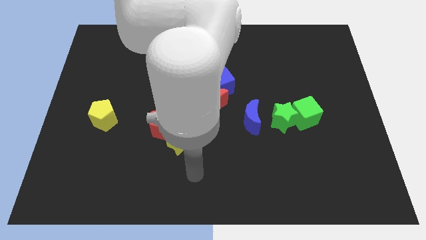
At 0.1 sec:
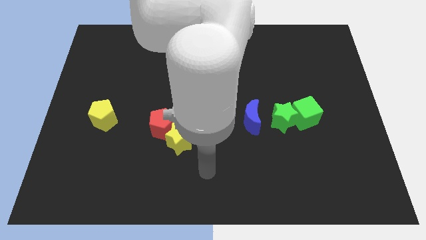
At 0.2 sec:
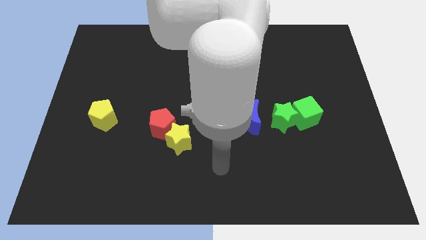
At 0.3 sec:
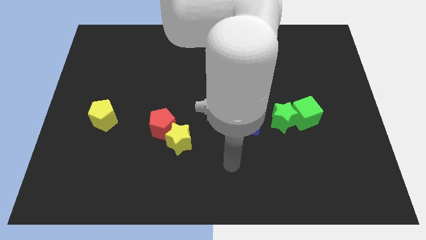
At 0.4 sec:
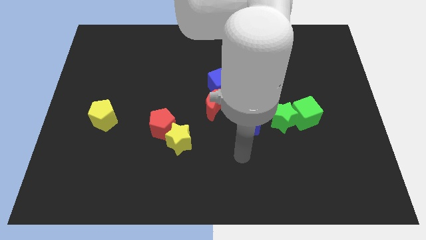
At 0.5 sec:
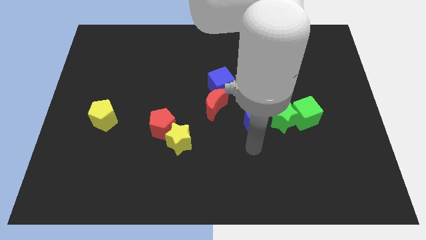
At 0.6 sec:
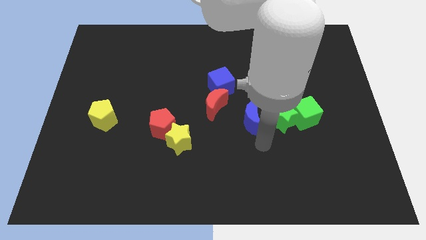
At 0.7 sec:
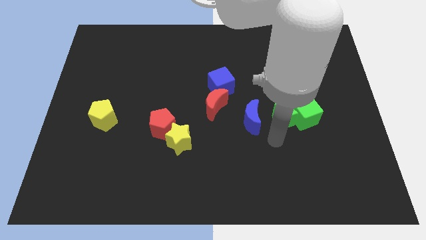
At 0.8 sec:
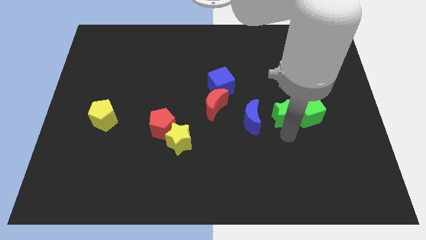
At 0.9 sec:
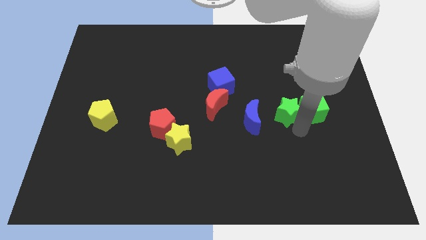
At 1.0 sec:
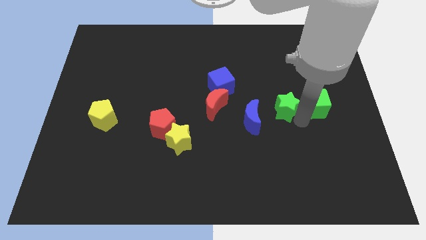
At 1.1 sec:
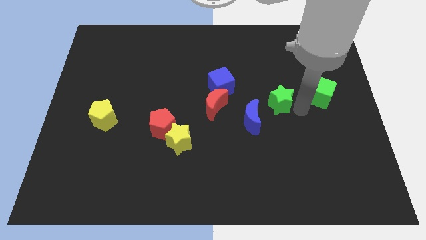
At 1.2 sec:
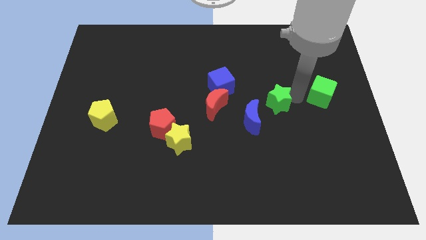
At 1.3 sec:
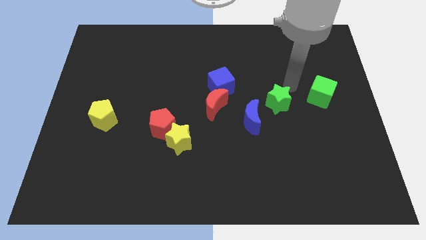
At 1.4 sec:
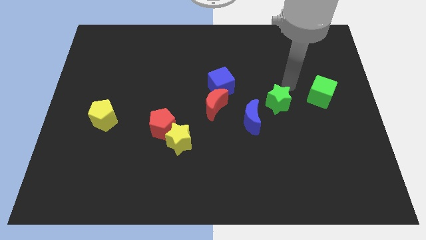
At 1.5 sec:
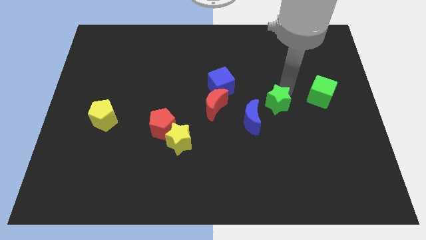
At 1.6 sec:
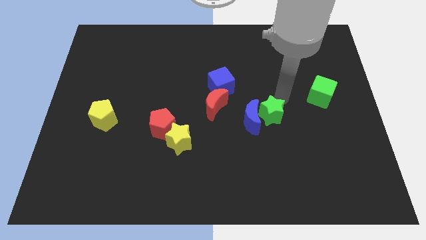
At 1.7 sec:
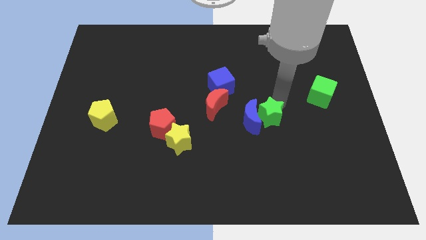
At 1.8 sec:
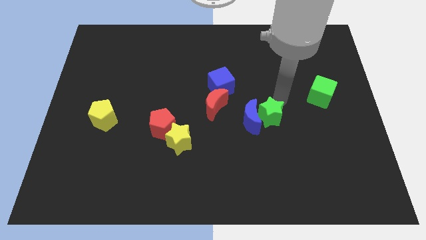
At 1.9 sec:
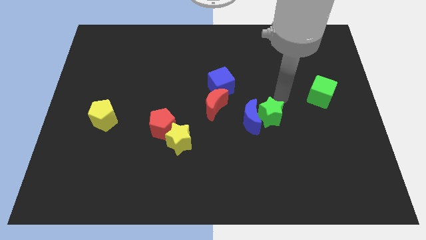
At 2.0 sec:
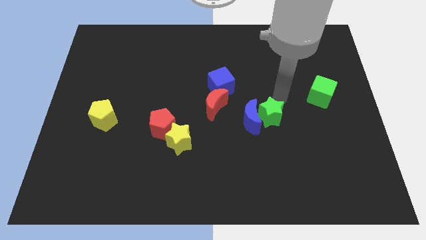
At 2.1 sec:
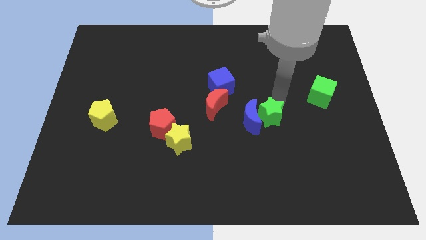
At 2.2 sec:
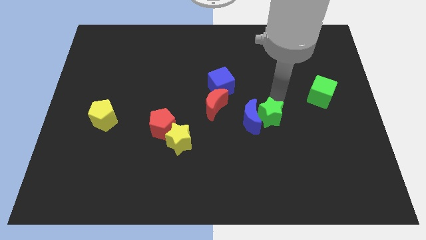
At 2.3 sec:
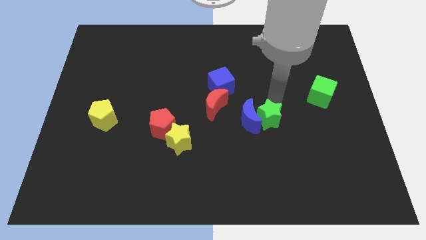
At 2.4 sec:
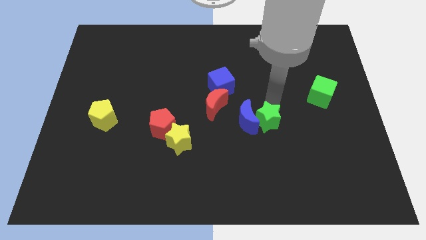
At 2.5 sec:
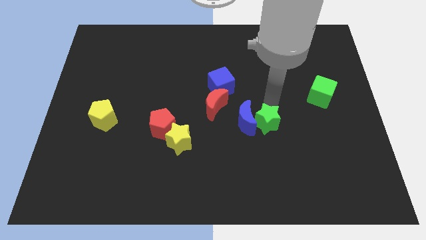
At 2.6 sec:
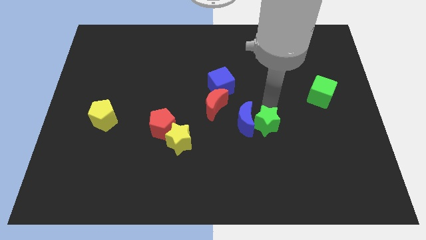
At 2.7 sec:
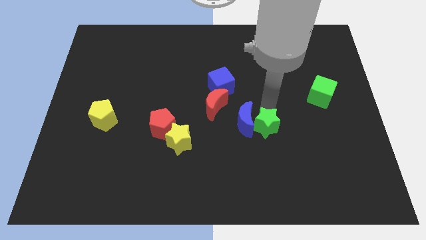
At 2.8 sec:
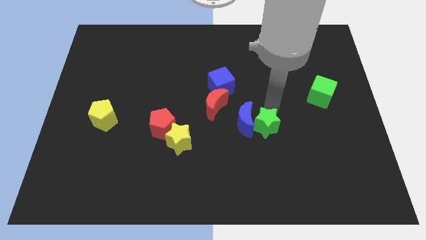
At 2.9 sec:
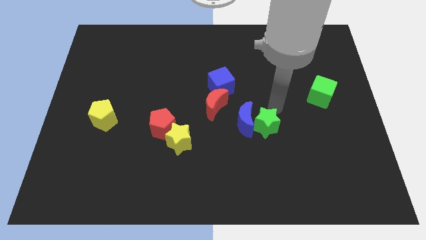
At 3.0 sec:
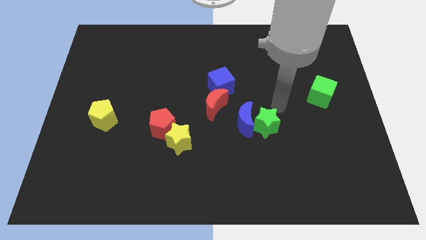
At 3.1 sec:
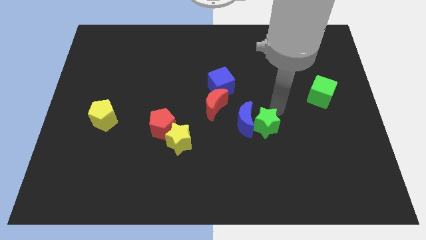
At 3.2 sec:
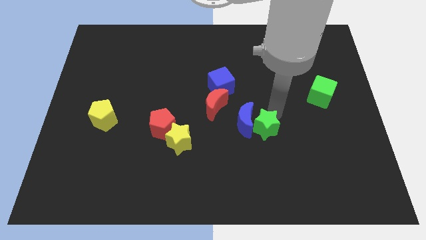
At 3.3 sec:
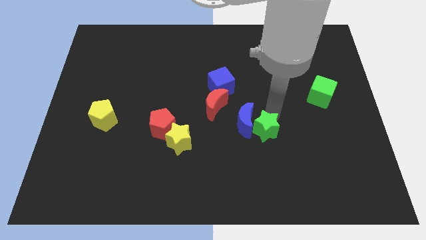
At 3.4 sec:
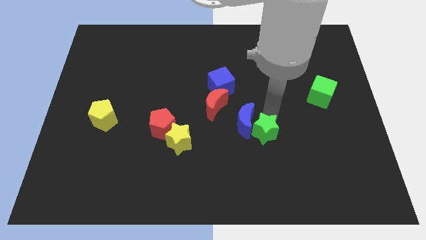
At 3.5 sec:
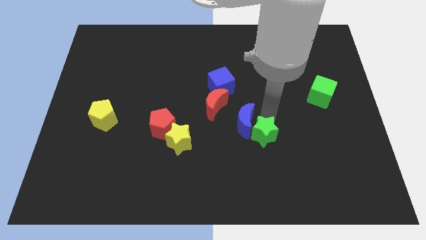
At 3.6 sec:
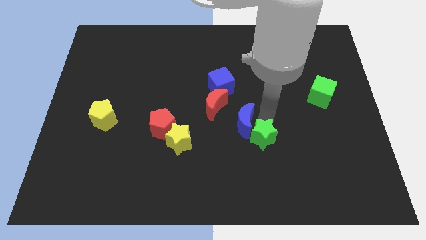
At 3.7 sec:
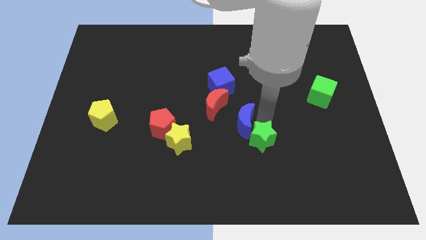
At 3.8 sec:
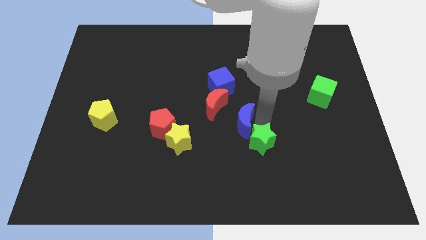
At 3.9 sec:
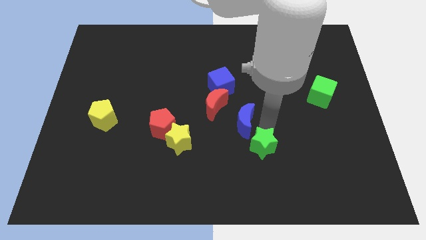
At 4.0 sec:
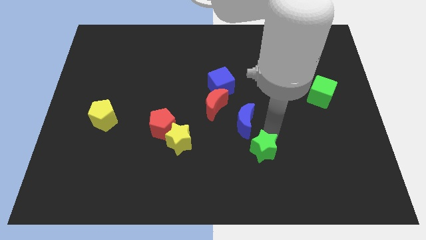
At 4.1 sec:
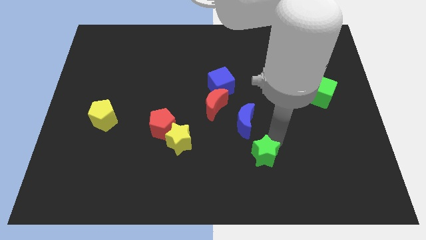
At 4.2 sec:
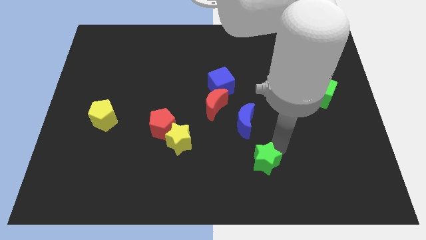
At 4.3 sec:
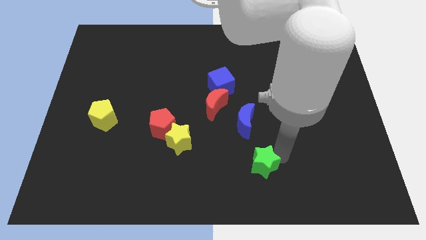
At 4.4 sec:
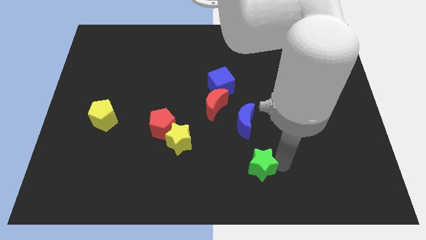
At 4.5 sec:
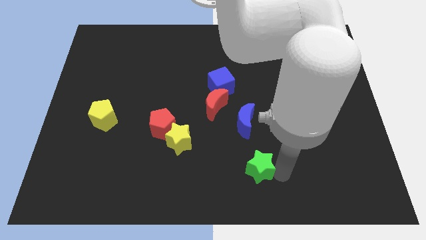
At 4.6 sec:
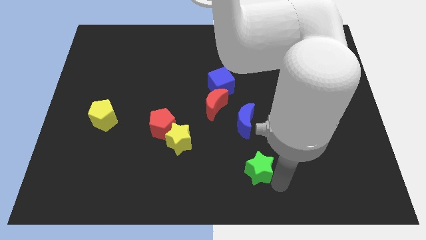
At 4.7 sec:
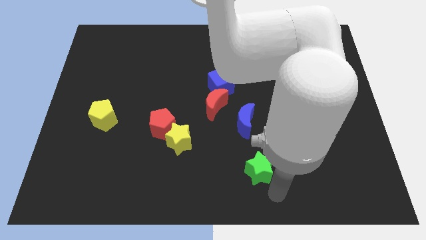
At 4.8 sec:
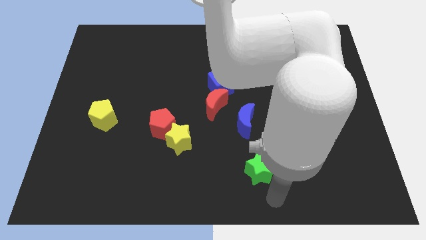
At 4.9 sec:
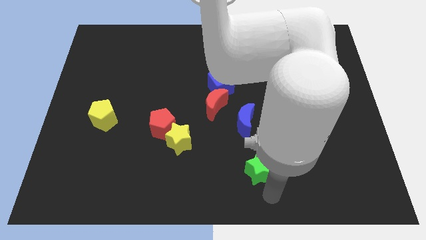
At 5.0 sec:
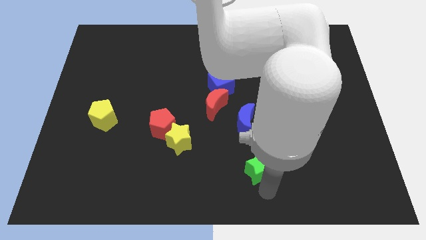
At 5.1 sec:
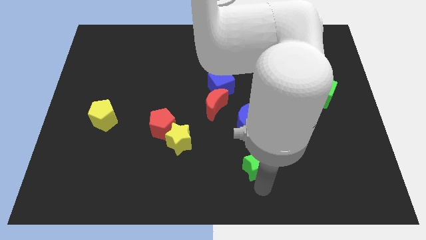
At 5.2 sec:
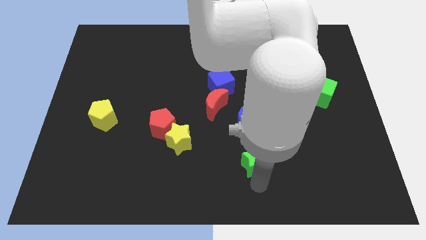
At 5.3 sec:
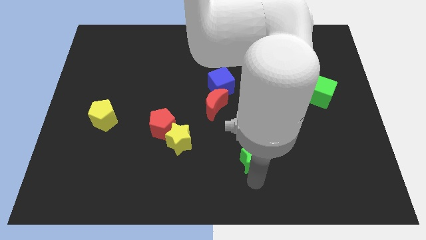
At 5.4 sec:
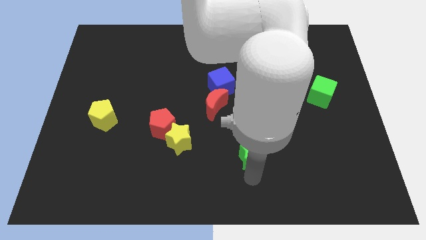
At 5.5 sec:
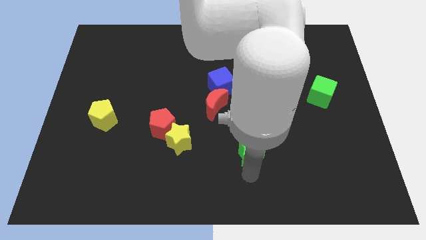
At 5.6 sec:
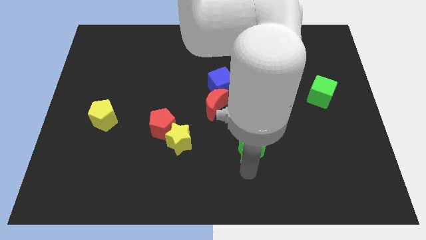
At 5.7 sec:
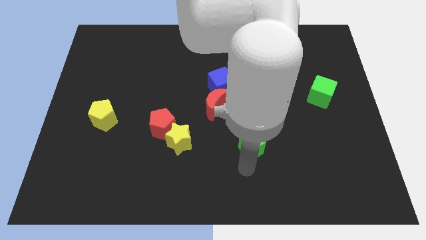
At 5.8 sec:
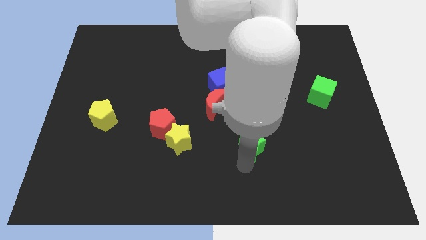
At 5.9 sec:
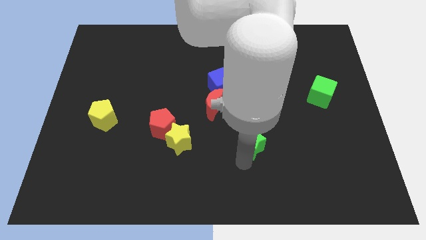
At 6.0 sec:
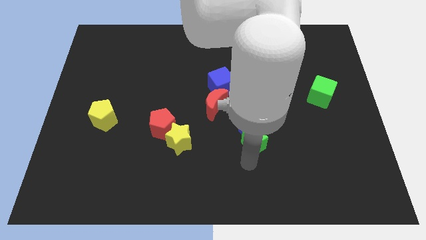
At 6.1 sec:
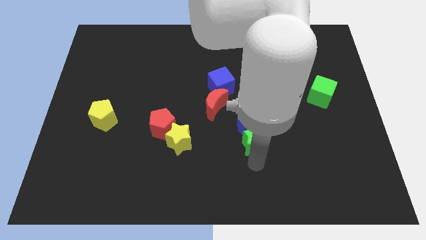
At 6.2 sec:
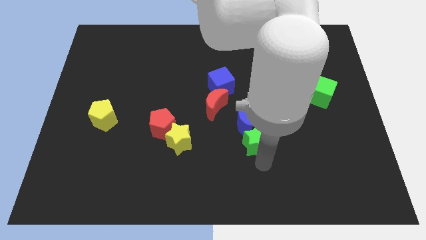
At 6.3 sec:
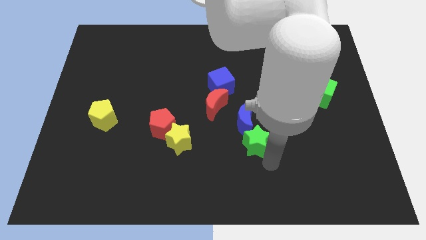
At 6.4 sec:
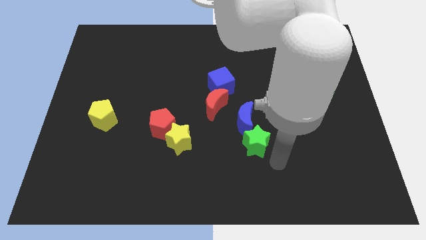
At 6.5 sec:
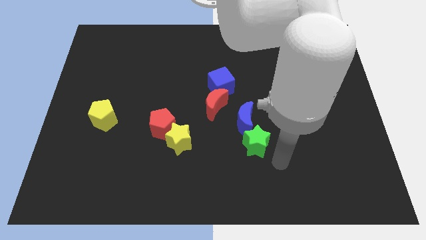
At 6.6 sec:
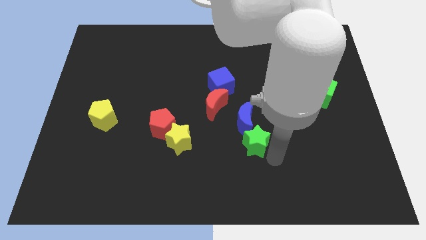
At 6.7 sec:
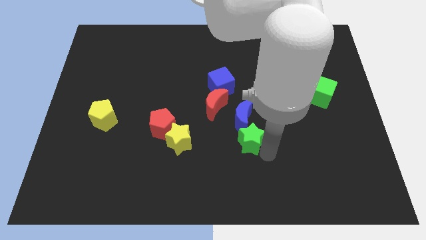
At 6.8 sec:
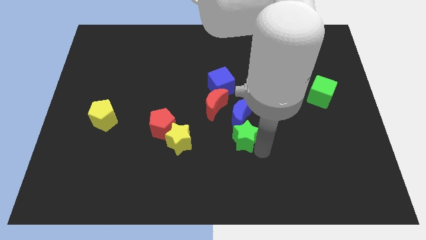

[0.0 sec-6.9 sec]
slide the green star a little to the left

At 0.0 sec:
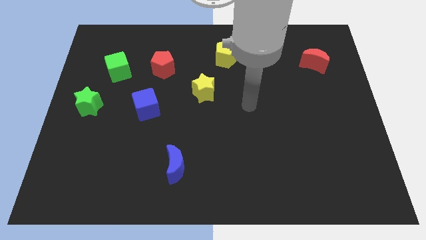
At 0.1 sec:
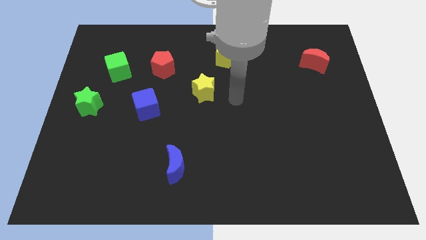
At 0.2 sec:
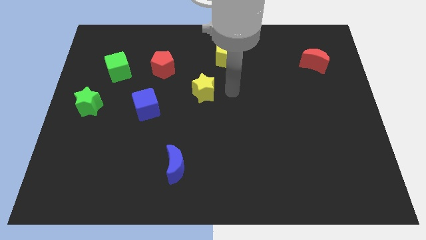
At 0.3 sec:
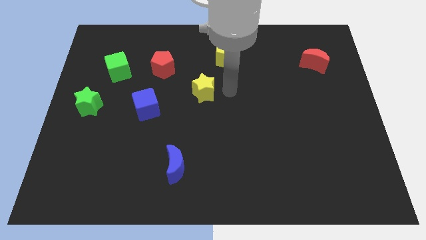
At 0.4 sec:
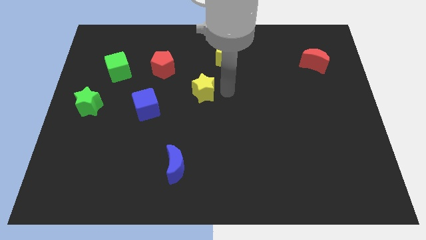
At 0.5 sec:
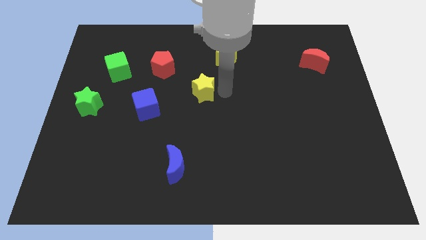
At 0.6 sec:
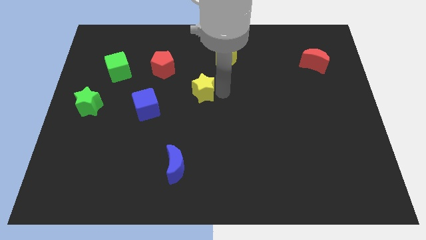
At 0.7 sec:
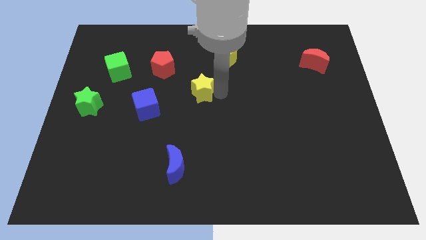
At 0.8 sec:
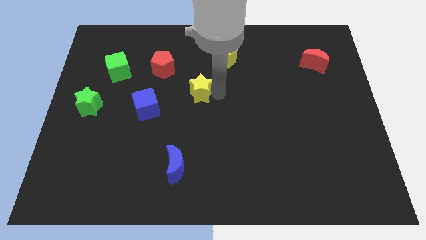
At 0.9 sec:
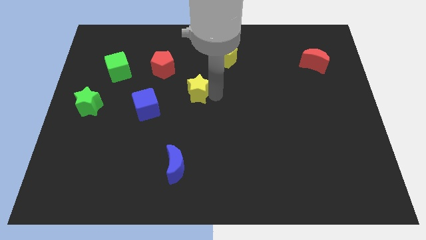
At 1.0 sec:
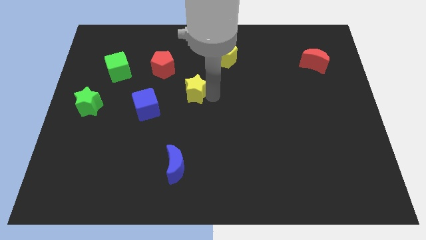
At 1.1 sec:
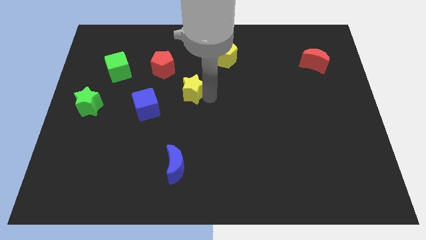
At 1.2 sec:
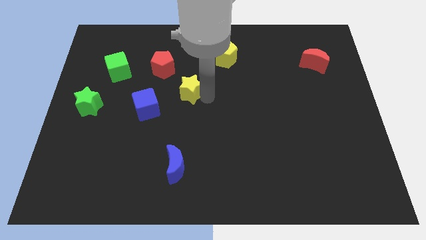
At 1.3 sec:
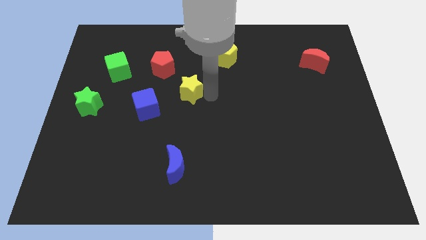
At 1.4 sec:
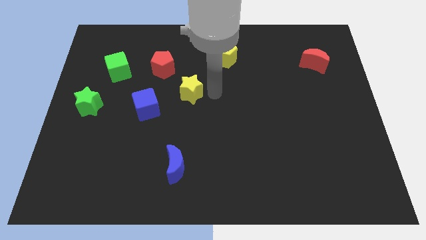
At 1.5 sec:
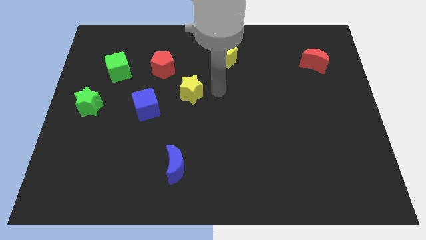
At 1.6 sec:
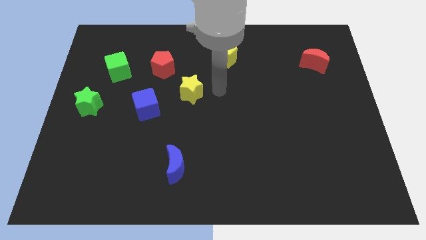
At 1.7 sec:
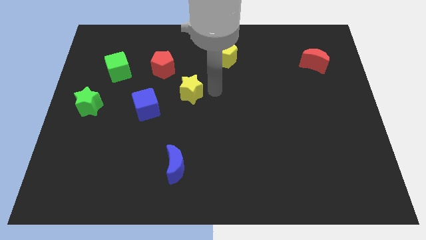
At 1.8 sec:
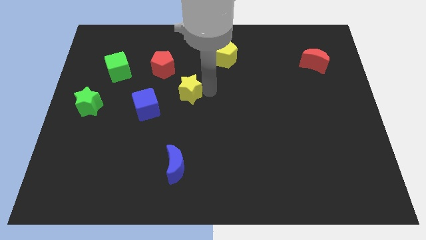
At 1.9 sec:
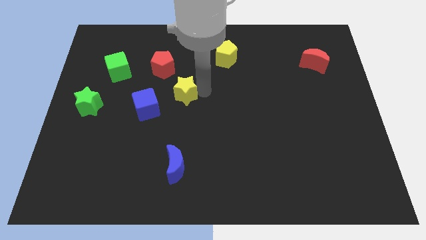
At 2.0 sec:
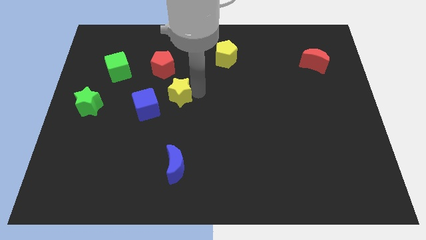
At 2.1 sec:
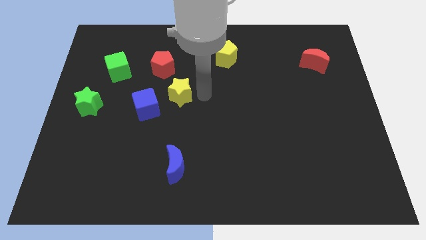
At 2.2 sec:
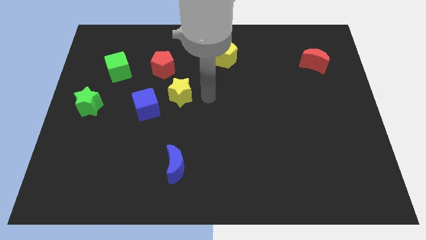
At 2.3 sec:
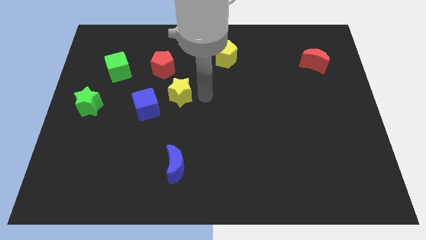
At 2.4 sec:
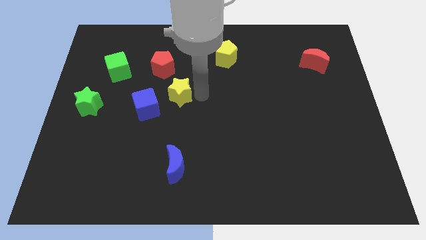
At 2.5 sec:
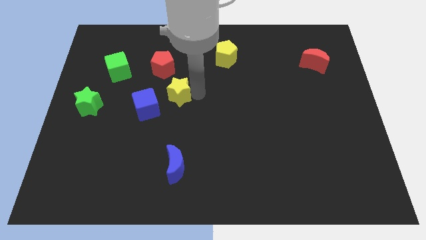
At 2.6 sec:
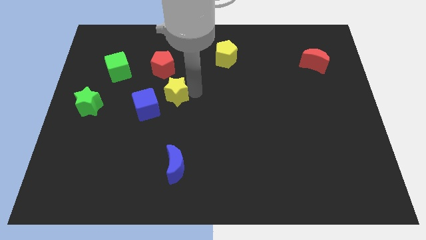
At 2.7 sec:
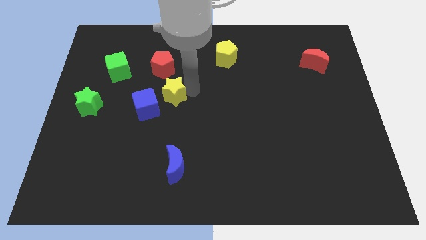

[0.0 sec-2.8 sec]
move the yellow star left a bit
